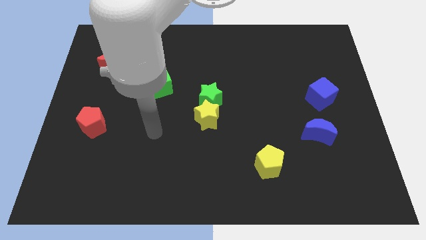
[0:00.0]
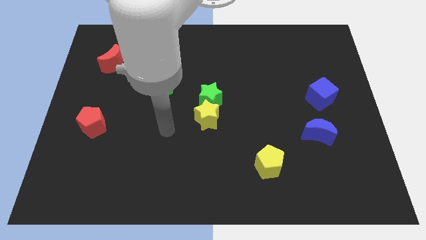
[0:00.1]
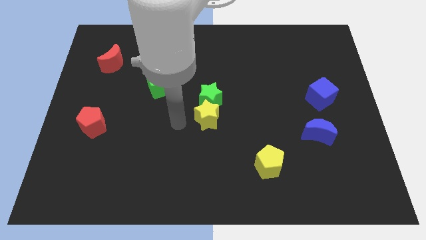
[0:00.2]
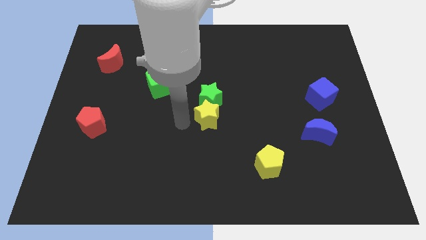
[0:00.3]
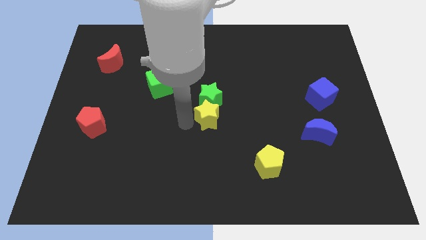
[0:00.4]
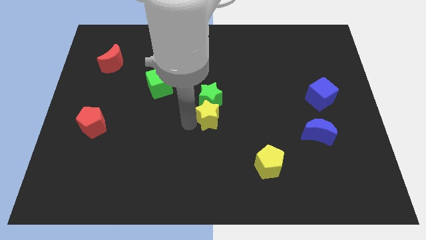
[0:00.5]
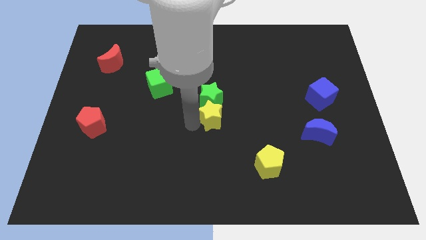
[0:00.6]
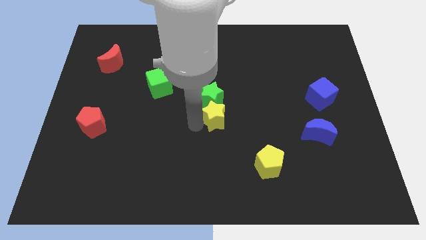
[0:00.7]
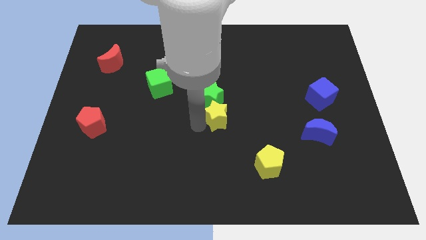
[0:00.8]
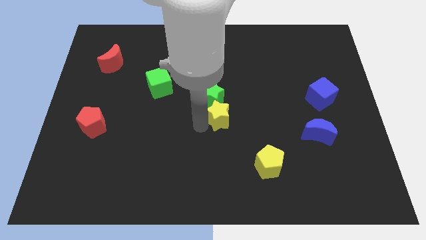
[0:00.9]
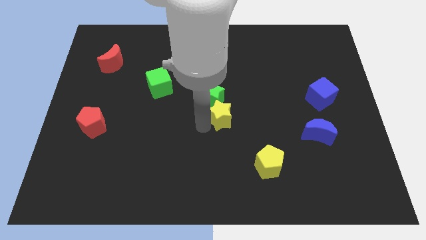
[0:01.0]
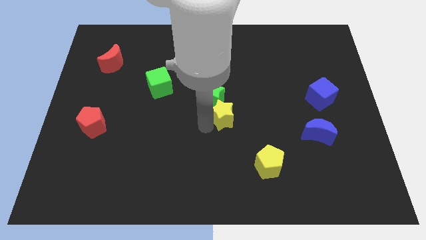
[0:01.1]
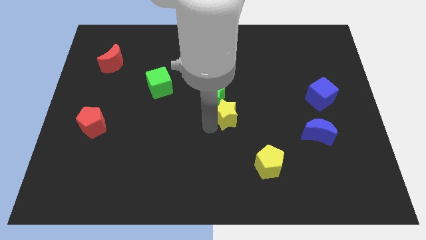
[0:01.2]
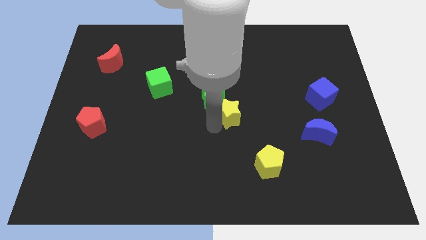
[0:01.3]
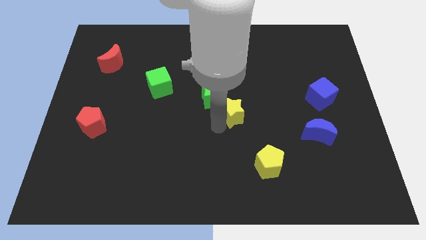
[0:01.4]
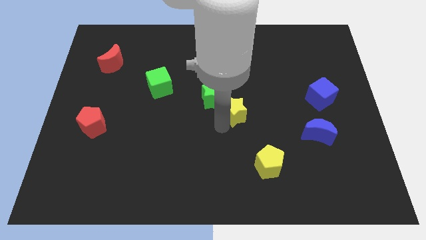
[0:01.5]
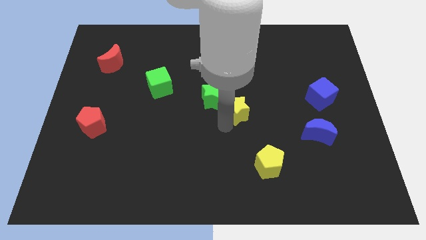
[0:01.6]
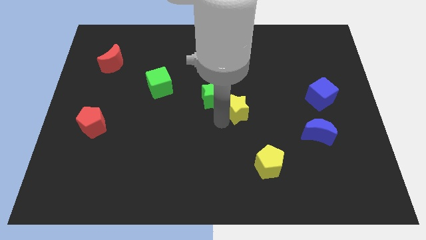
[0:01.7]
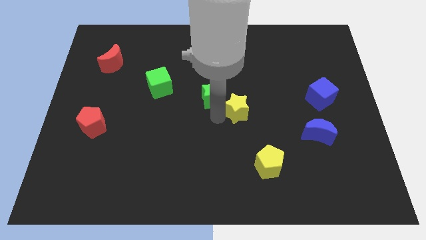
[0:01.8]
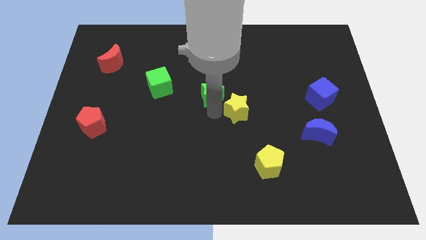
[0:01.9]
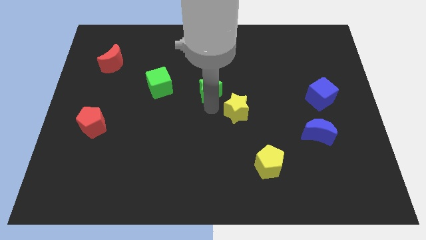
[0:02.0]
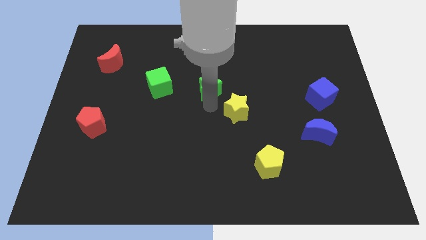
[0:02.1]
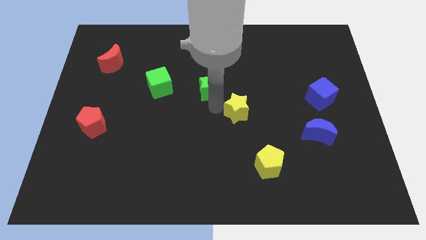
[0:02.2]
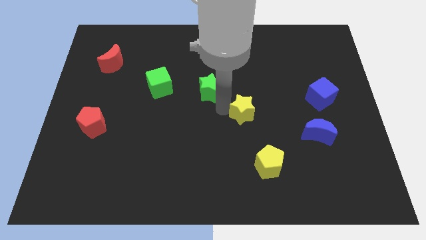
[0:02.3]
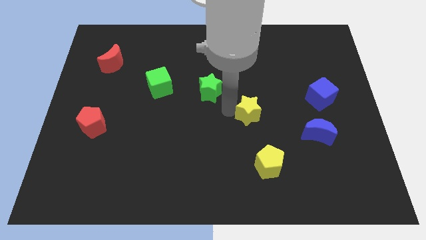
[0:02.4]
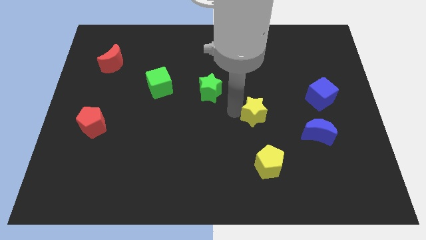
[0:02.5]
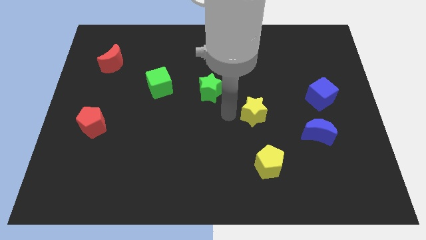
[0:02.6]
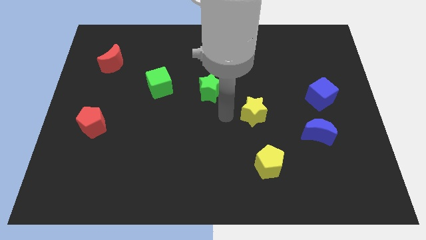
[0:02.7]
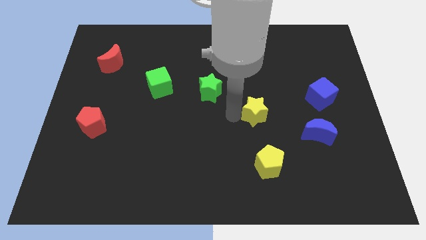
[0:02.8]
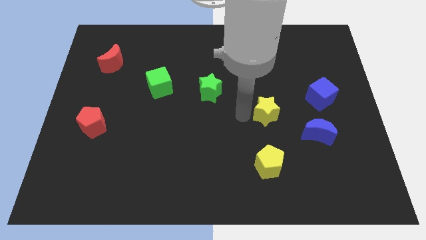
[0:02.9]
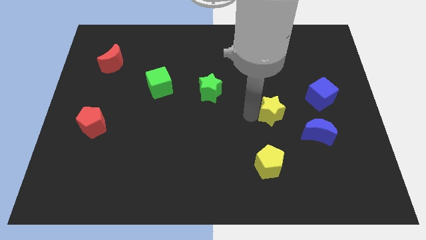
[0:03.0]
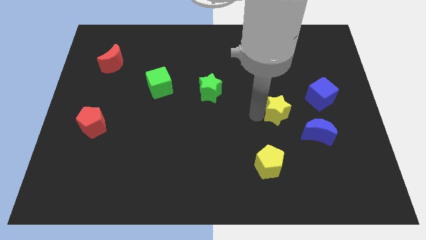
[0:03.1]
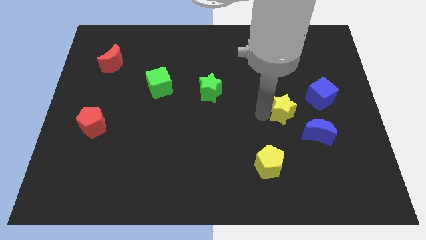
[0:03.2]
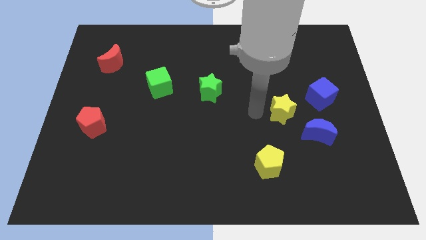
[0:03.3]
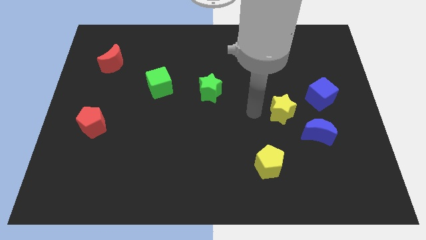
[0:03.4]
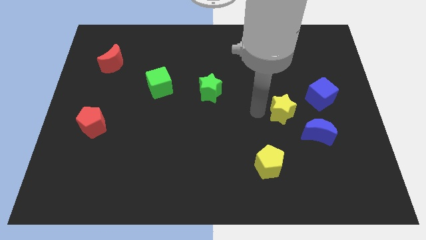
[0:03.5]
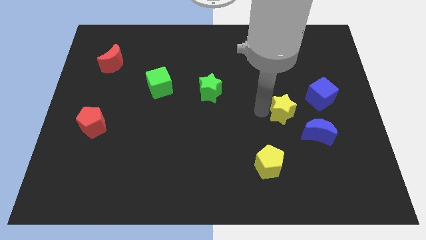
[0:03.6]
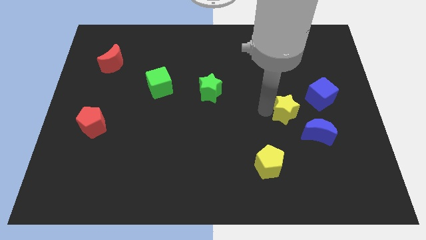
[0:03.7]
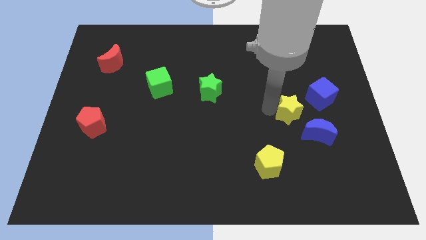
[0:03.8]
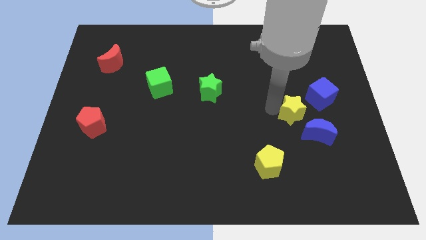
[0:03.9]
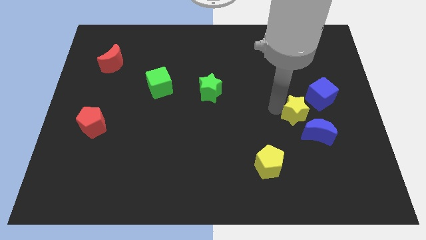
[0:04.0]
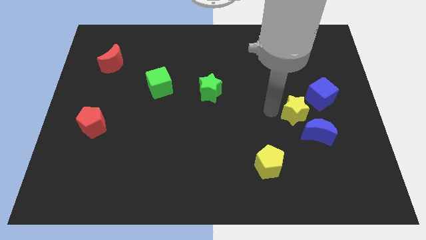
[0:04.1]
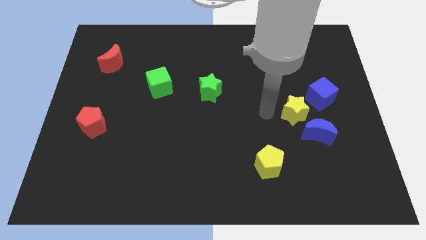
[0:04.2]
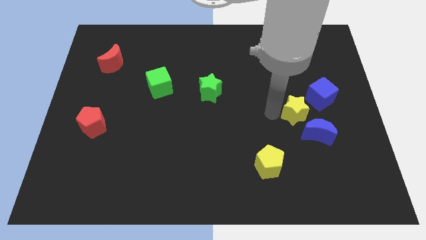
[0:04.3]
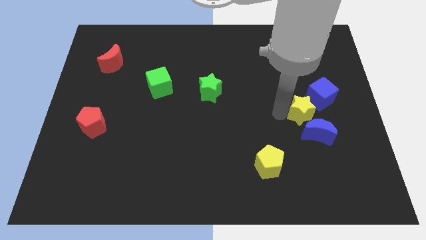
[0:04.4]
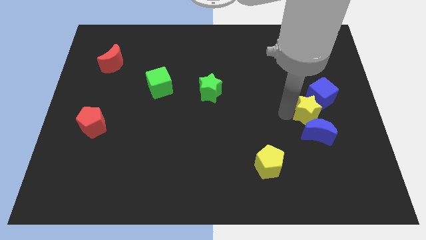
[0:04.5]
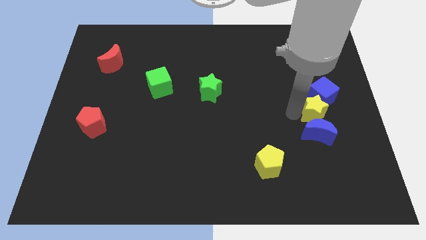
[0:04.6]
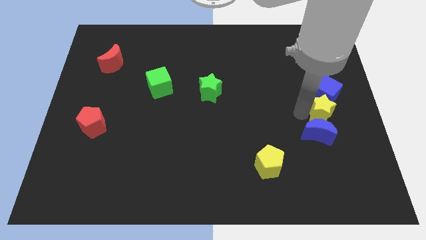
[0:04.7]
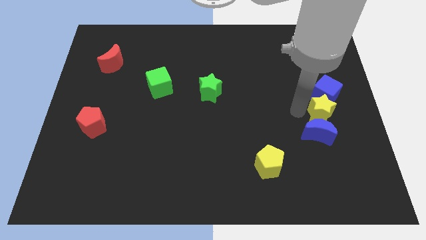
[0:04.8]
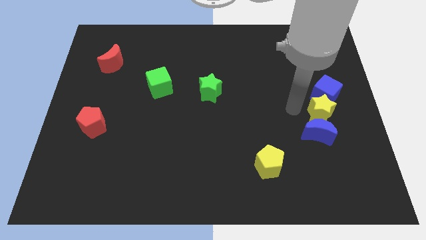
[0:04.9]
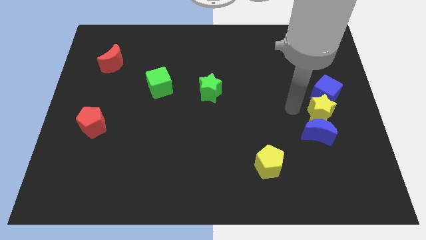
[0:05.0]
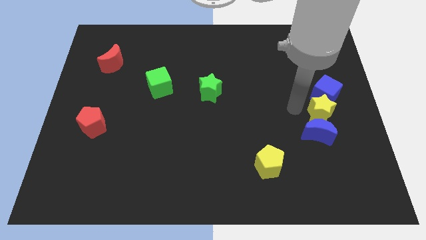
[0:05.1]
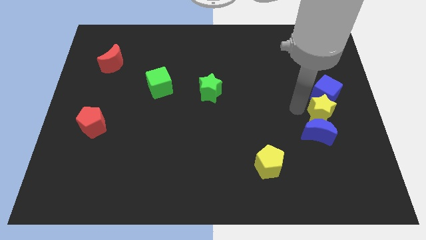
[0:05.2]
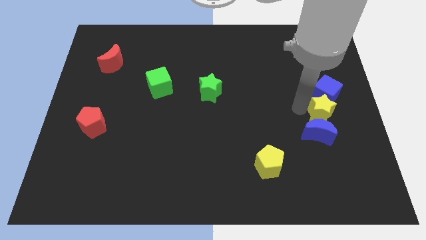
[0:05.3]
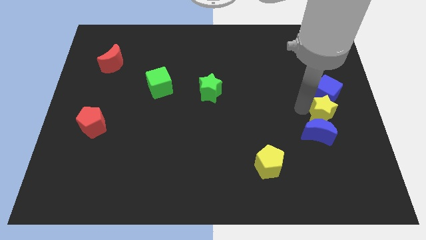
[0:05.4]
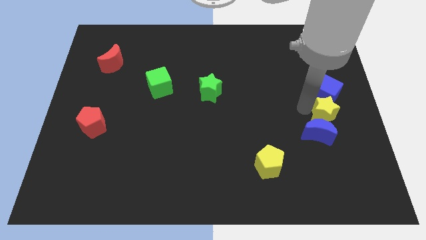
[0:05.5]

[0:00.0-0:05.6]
push the yellow star to the right side of the board

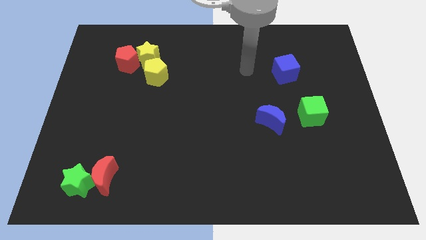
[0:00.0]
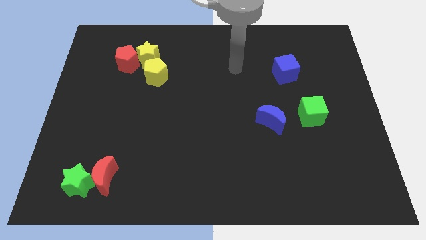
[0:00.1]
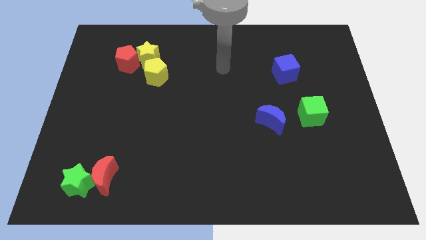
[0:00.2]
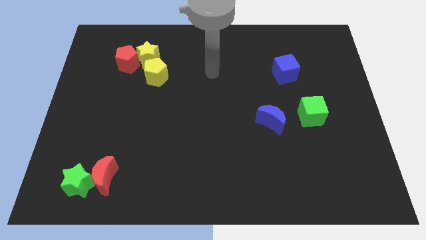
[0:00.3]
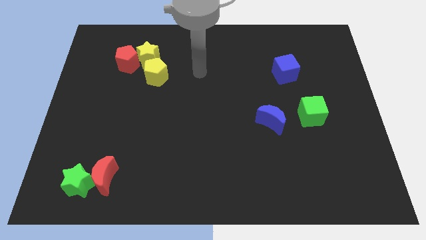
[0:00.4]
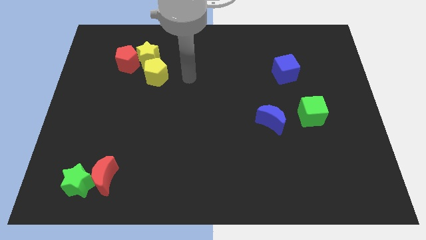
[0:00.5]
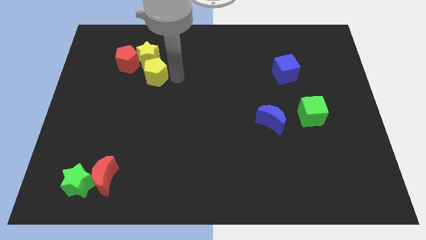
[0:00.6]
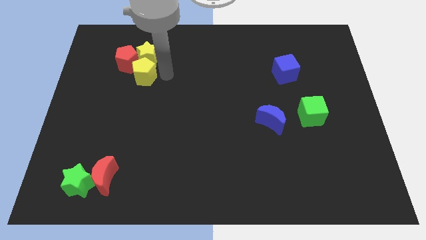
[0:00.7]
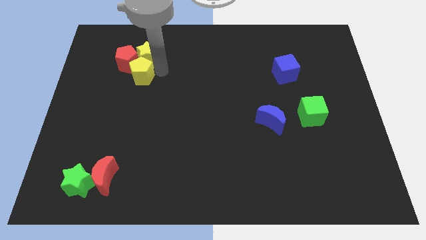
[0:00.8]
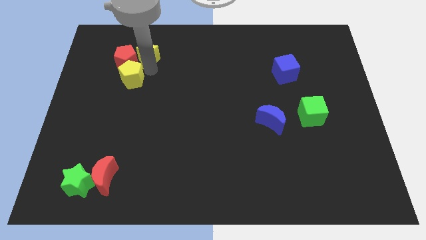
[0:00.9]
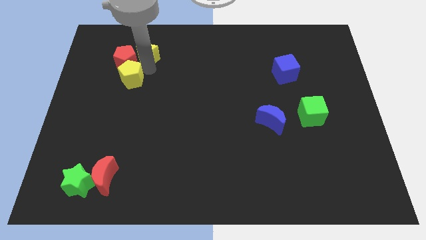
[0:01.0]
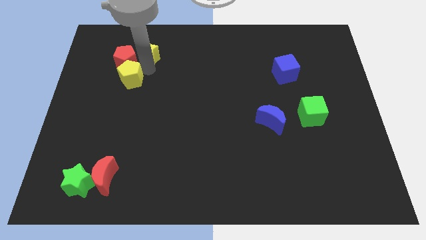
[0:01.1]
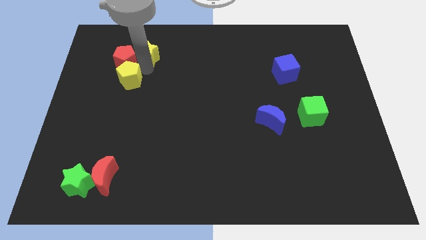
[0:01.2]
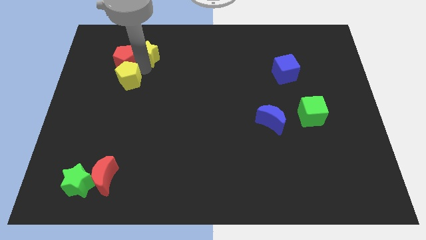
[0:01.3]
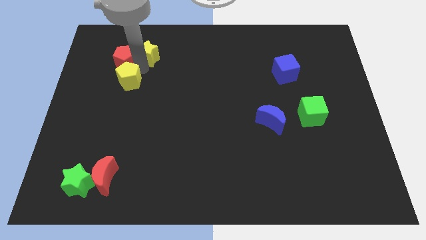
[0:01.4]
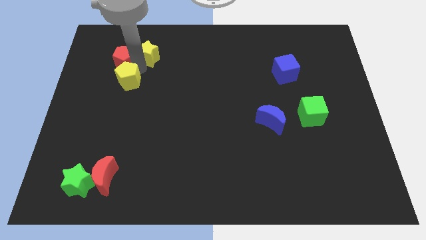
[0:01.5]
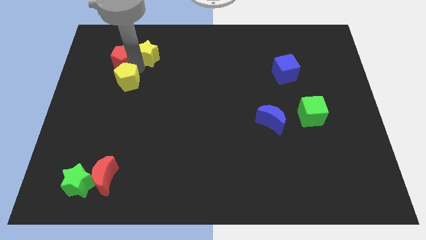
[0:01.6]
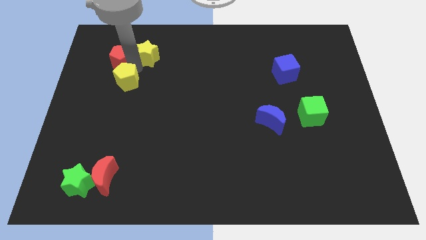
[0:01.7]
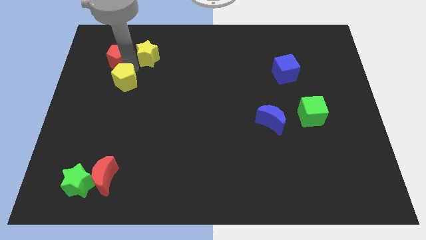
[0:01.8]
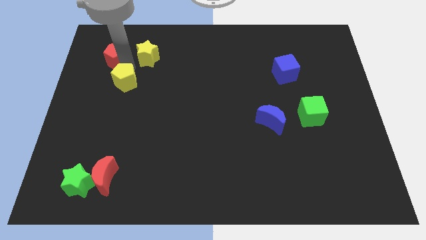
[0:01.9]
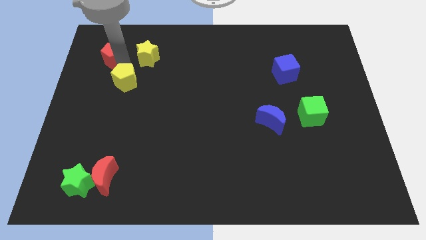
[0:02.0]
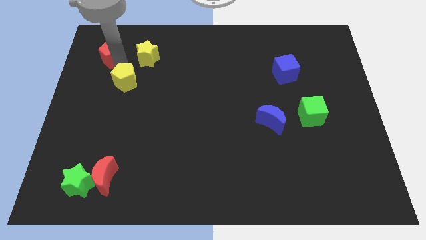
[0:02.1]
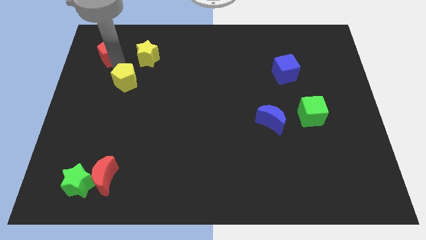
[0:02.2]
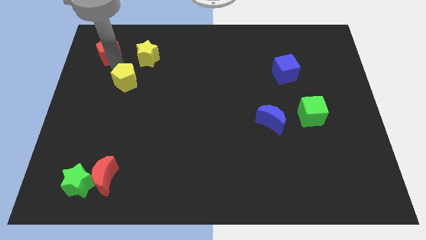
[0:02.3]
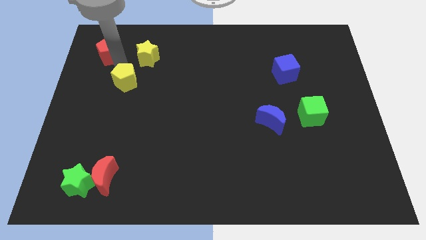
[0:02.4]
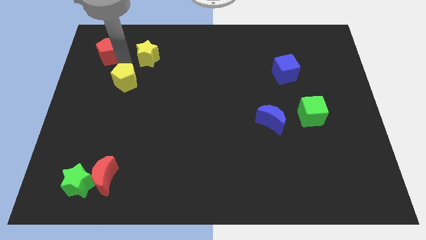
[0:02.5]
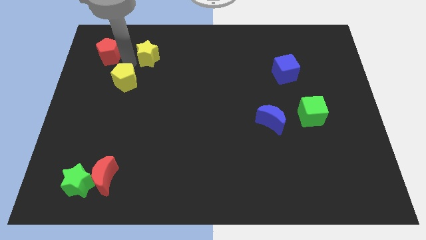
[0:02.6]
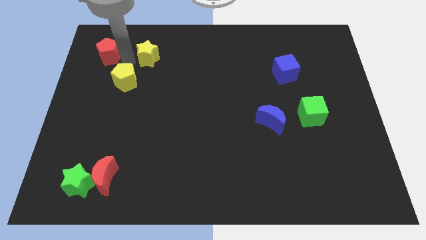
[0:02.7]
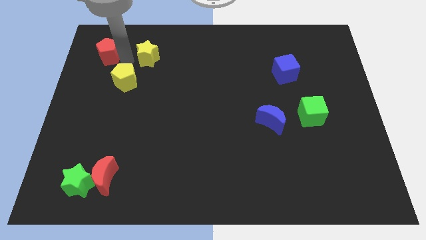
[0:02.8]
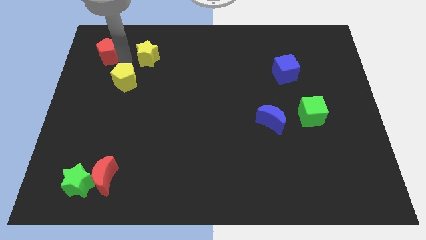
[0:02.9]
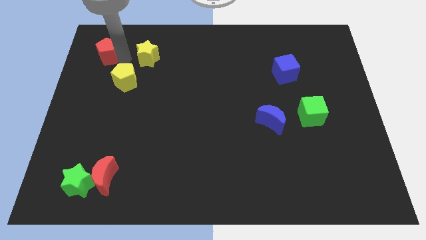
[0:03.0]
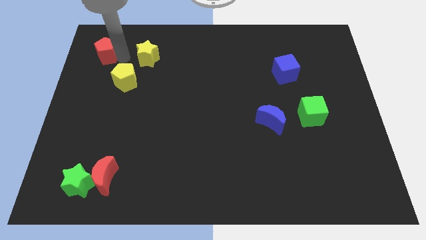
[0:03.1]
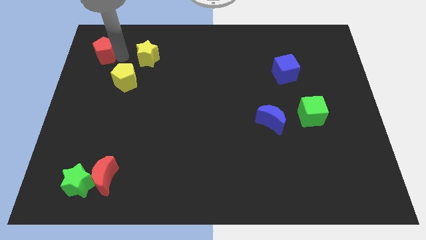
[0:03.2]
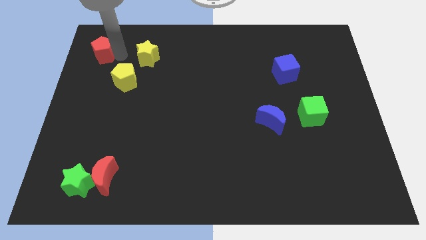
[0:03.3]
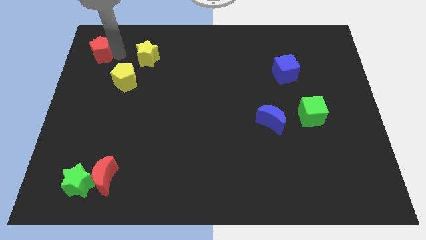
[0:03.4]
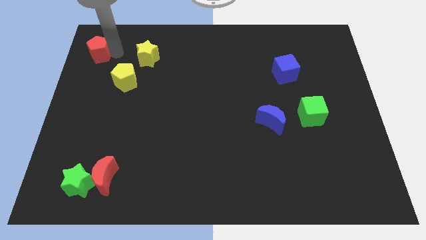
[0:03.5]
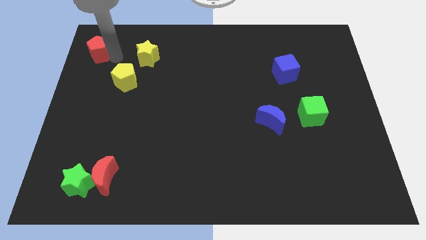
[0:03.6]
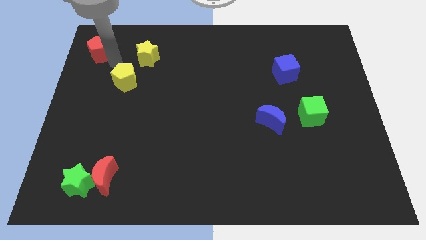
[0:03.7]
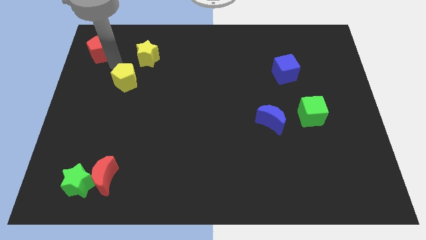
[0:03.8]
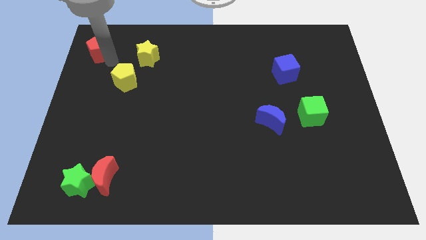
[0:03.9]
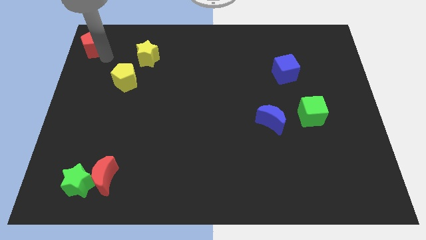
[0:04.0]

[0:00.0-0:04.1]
push the red pentagon to the upper left corner
